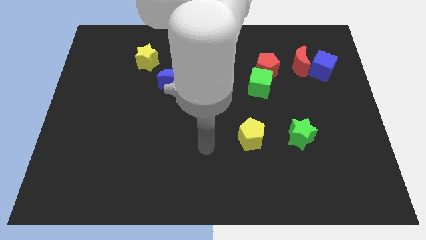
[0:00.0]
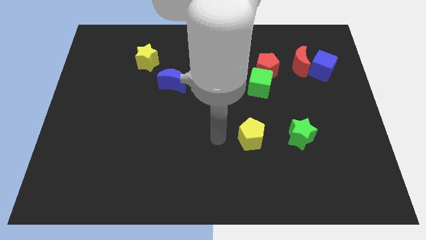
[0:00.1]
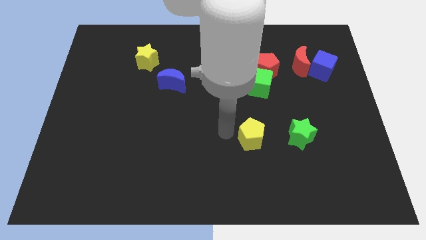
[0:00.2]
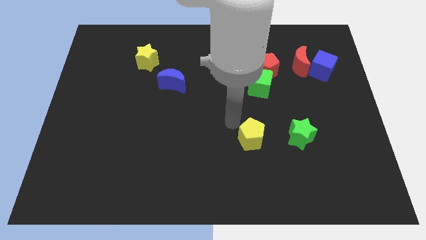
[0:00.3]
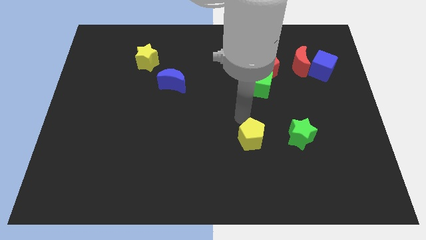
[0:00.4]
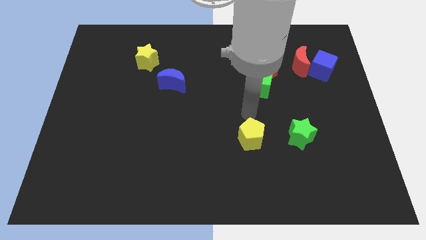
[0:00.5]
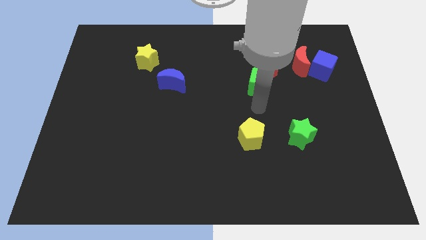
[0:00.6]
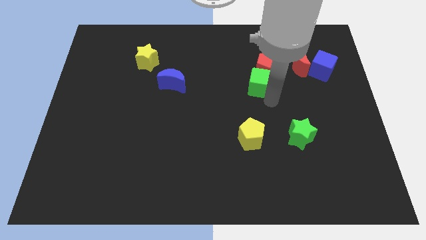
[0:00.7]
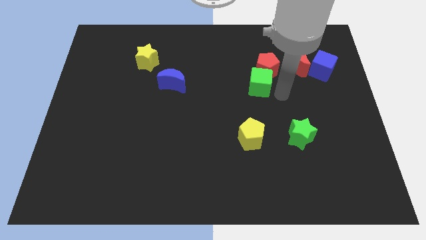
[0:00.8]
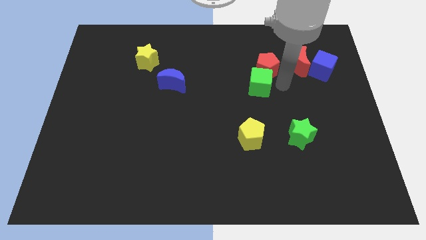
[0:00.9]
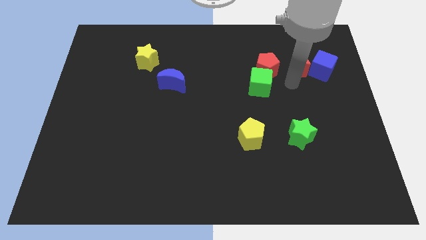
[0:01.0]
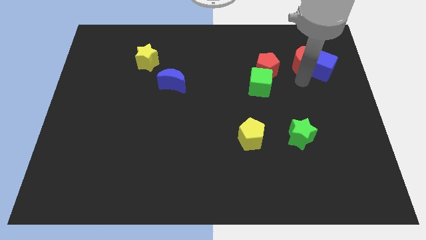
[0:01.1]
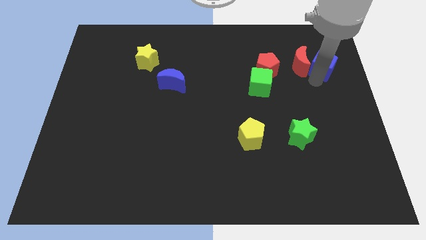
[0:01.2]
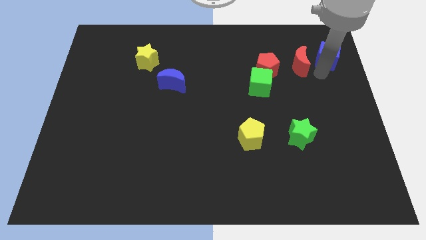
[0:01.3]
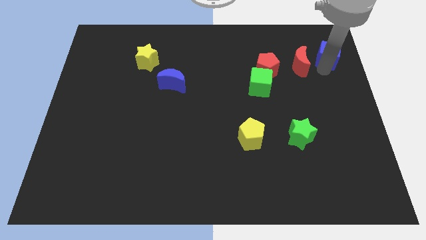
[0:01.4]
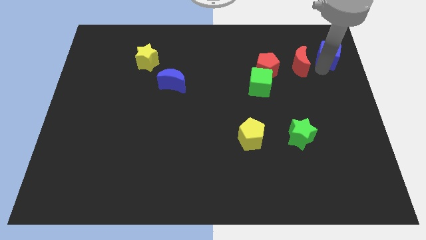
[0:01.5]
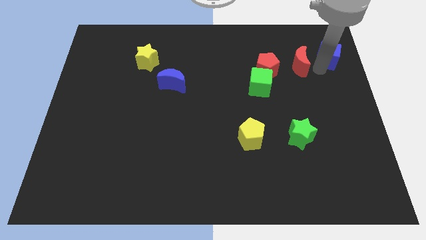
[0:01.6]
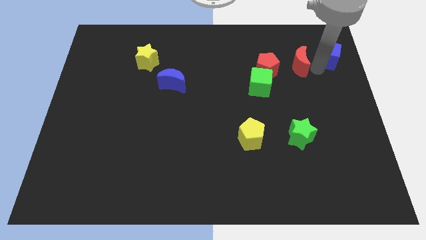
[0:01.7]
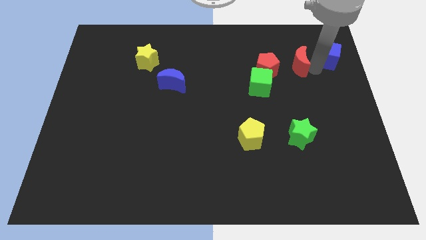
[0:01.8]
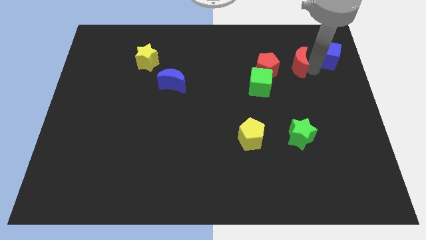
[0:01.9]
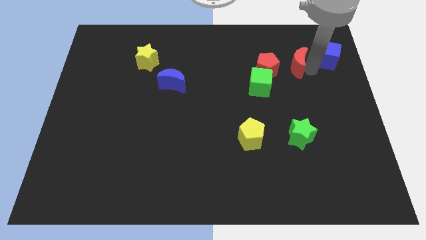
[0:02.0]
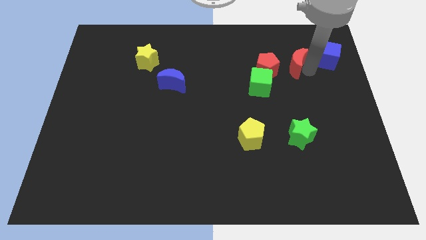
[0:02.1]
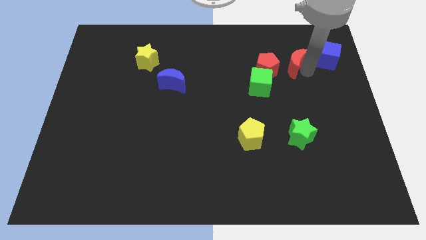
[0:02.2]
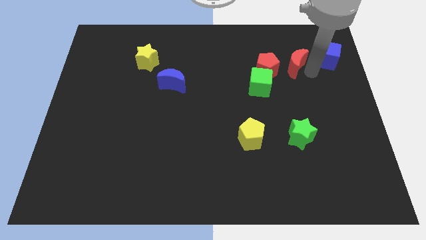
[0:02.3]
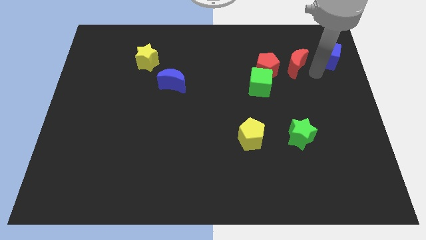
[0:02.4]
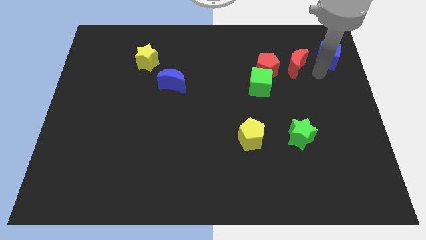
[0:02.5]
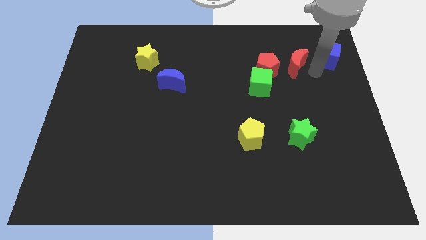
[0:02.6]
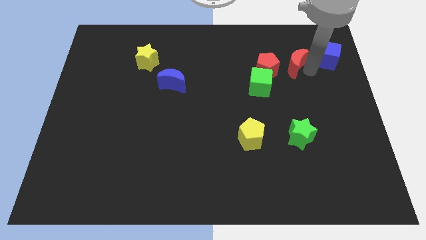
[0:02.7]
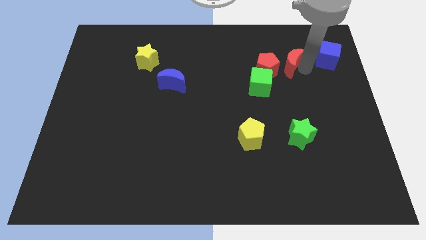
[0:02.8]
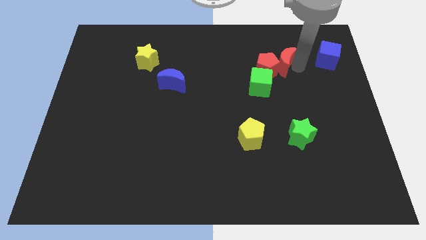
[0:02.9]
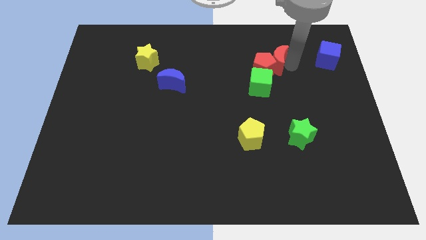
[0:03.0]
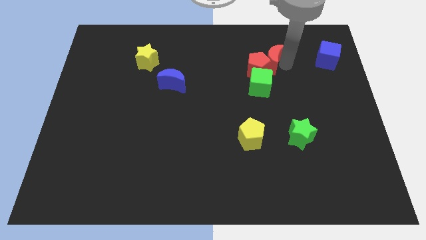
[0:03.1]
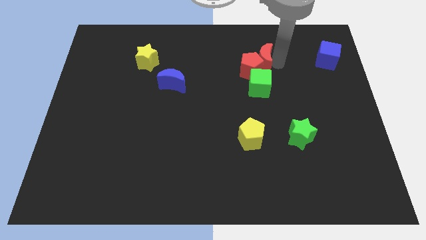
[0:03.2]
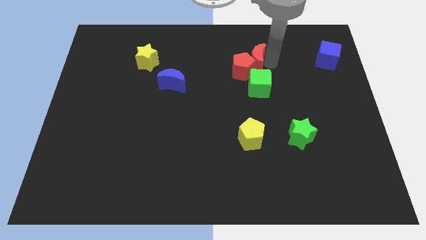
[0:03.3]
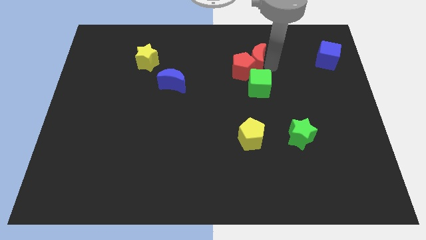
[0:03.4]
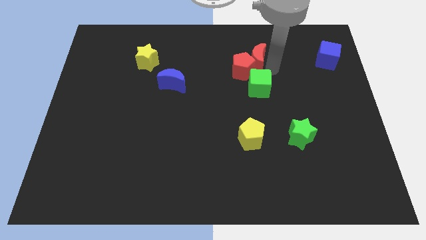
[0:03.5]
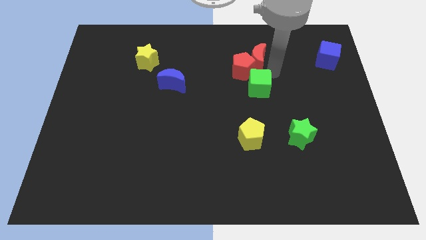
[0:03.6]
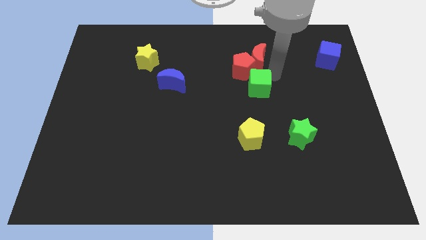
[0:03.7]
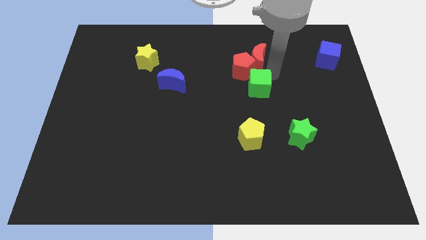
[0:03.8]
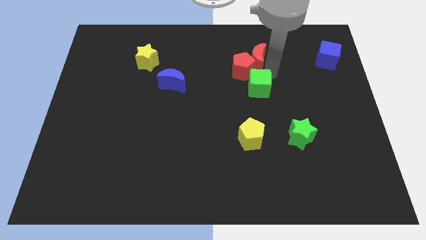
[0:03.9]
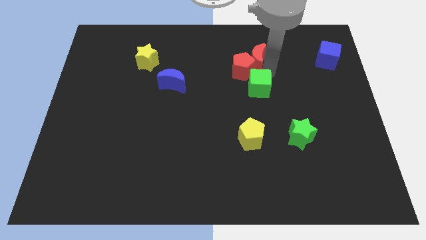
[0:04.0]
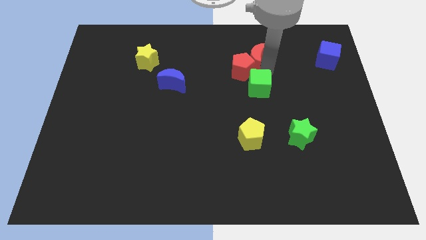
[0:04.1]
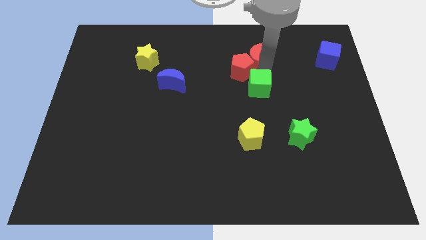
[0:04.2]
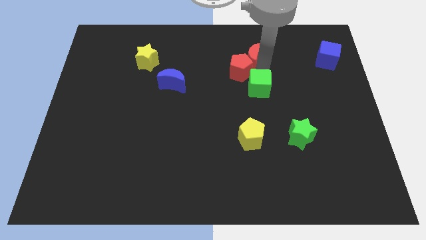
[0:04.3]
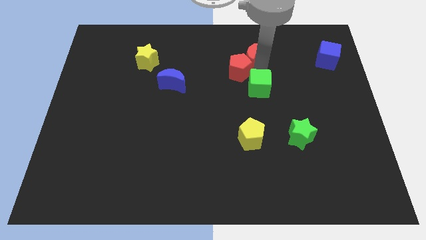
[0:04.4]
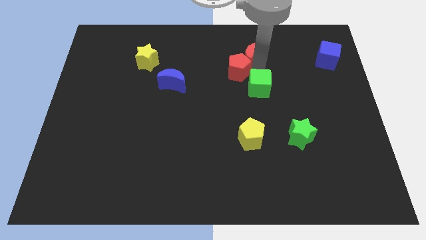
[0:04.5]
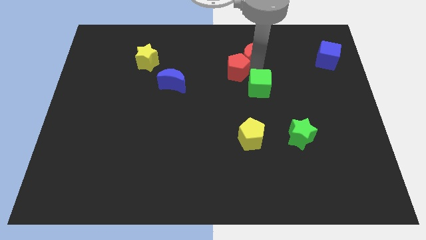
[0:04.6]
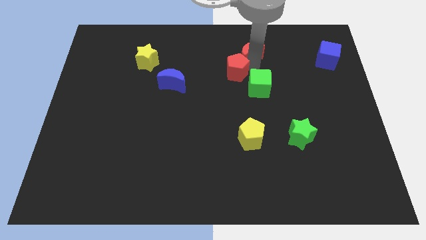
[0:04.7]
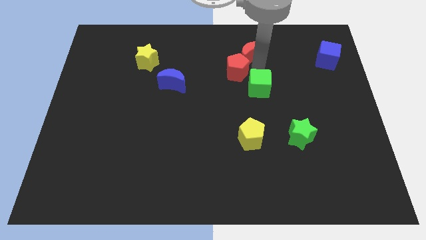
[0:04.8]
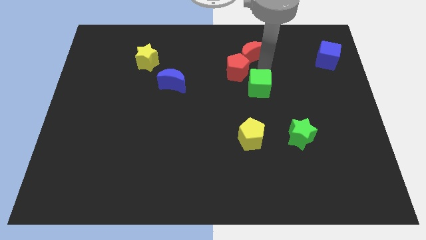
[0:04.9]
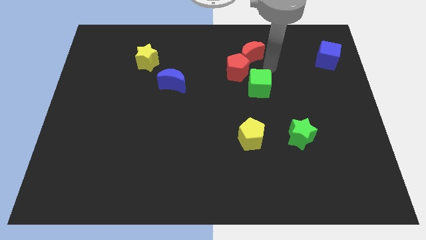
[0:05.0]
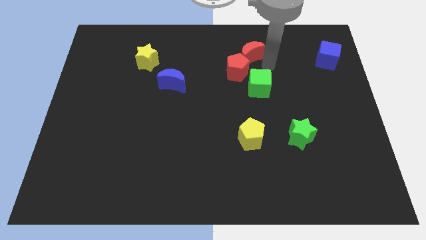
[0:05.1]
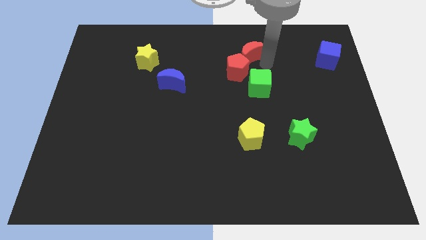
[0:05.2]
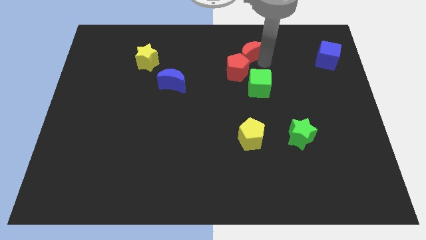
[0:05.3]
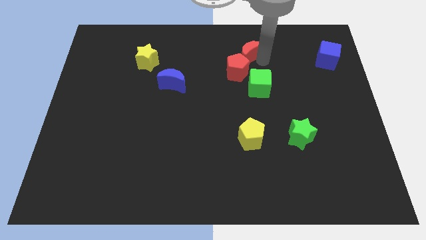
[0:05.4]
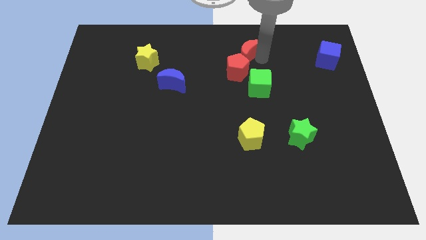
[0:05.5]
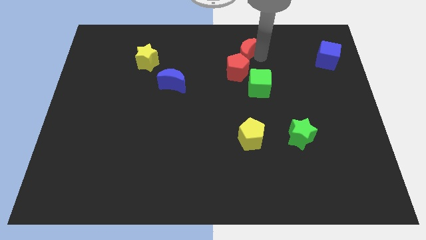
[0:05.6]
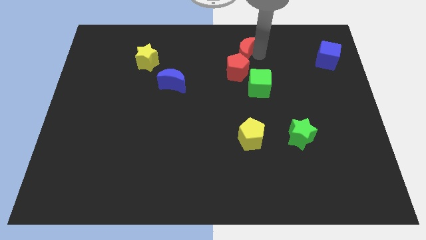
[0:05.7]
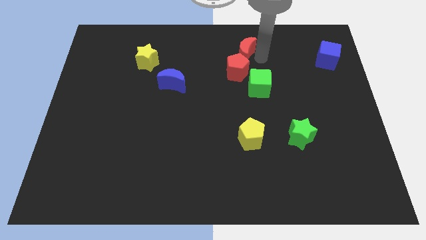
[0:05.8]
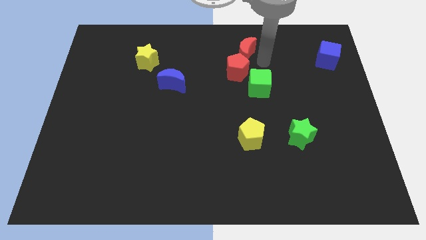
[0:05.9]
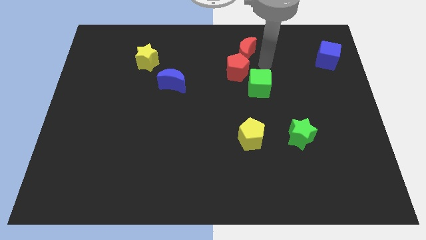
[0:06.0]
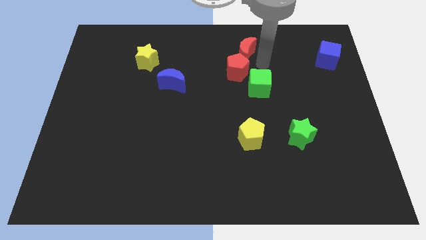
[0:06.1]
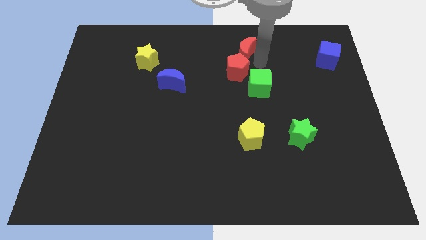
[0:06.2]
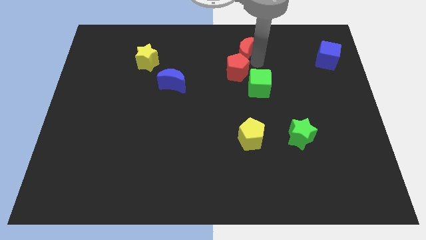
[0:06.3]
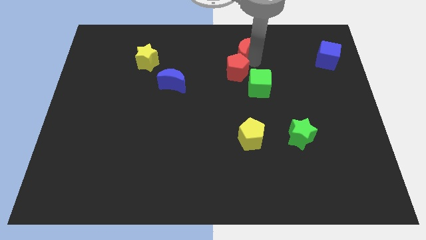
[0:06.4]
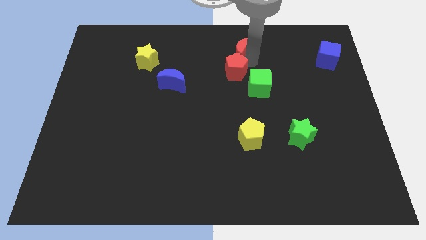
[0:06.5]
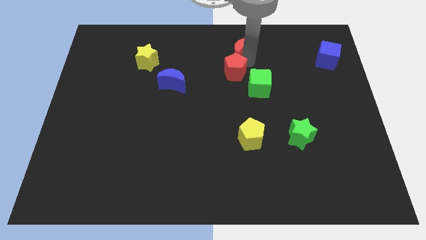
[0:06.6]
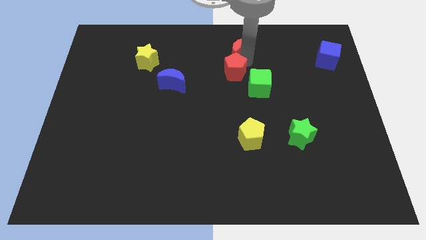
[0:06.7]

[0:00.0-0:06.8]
move the red moon to the top side
